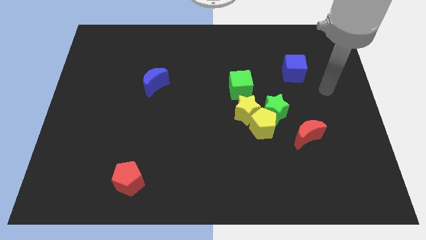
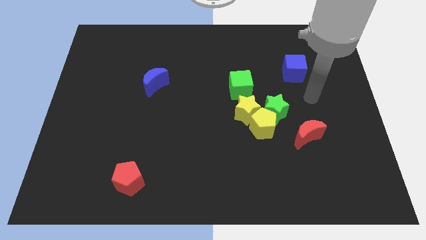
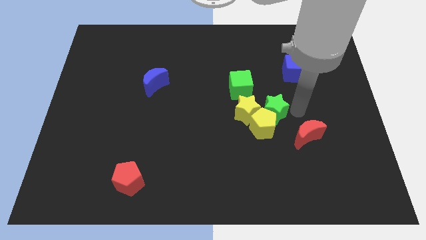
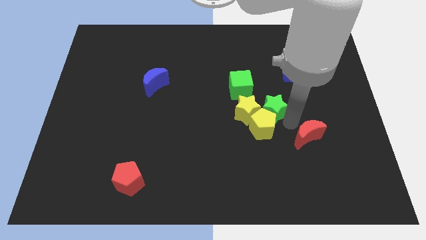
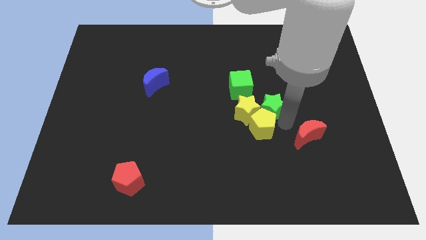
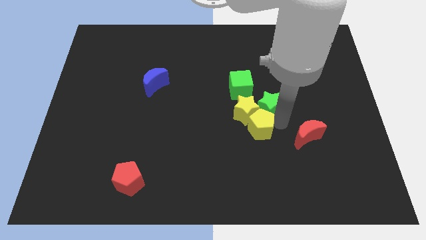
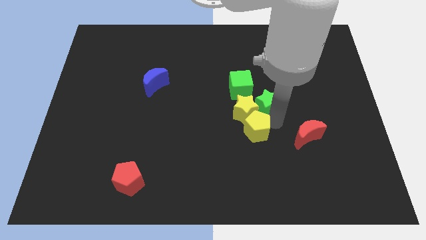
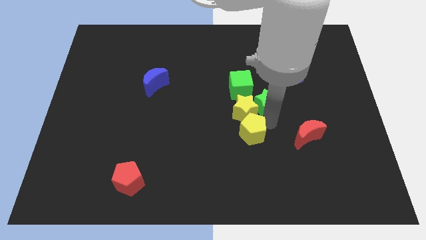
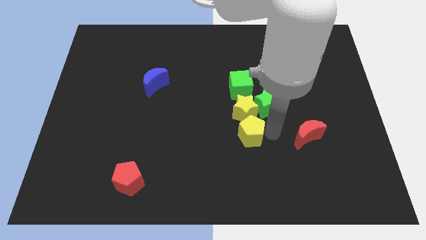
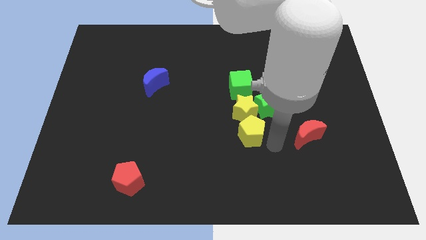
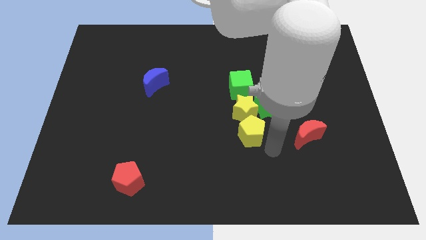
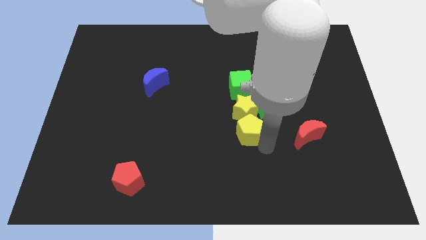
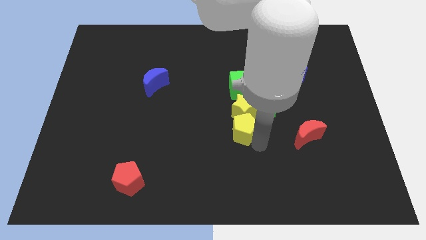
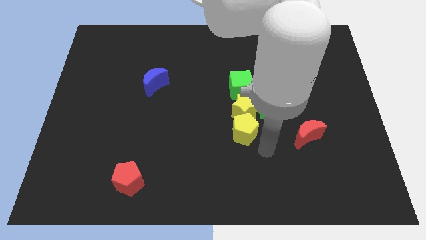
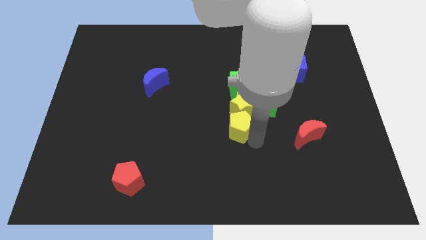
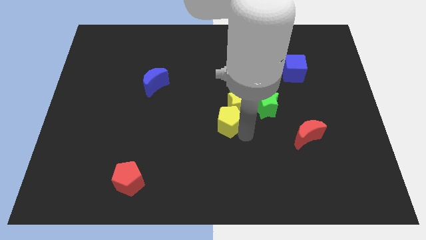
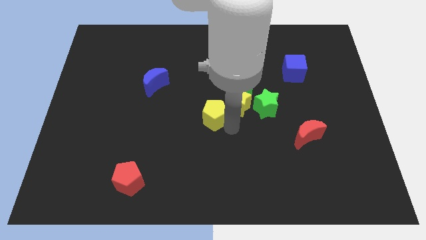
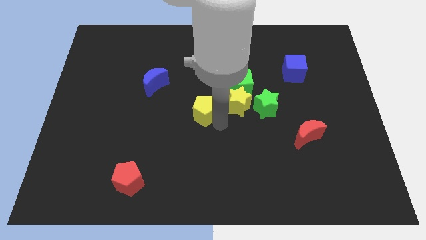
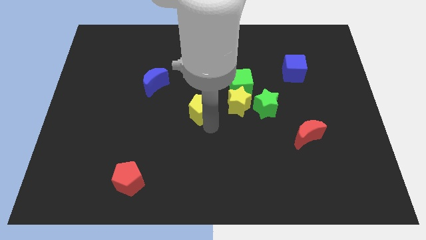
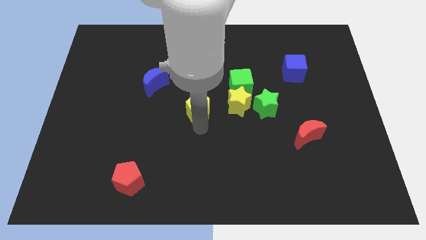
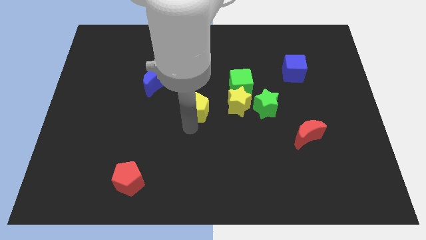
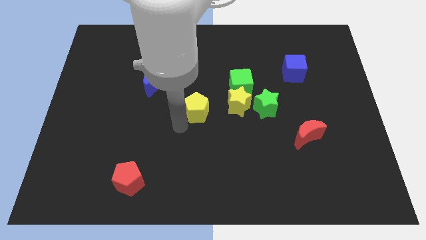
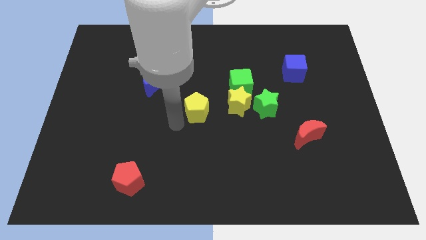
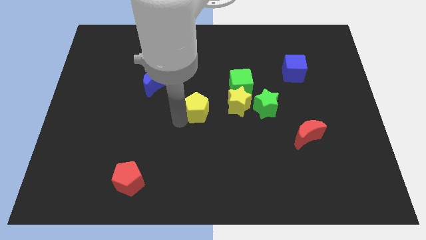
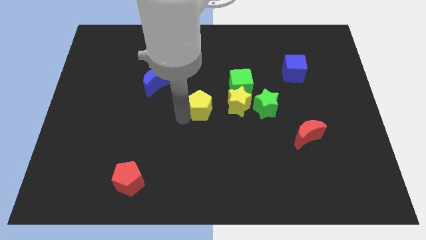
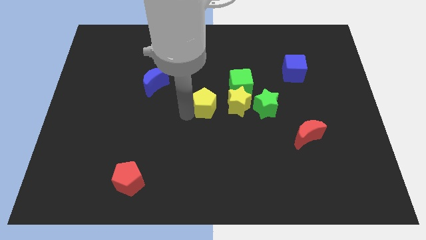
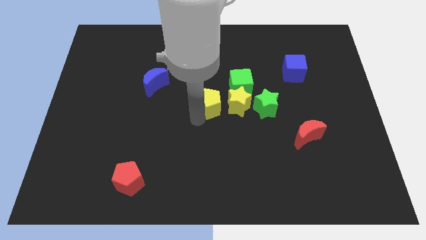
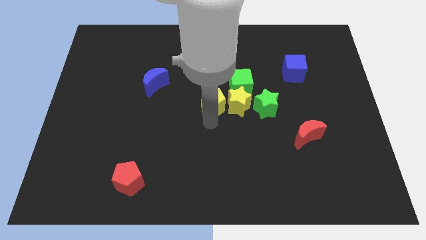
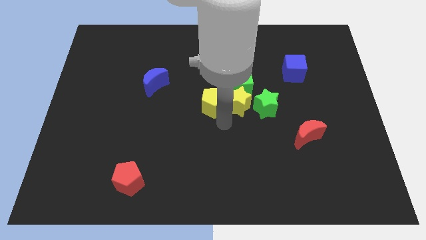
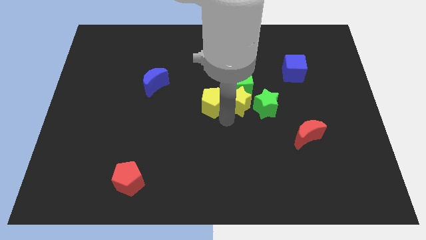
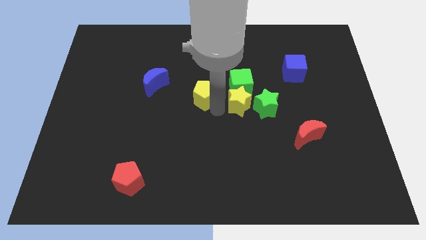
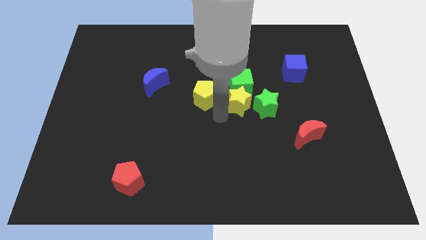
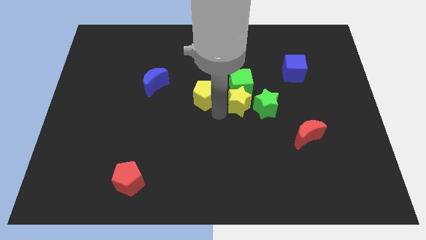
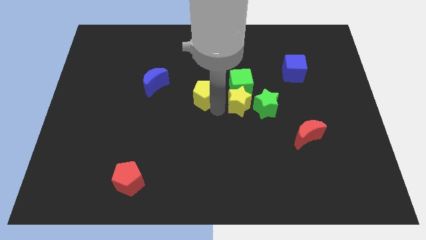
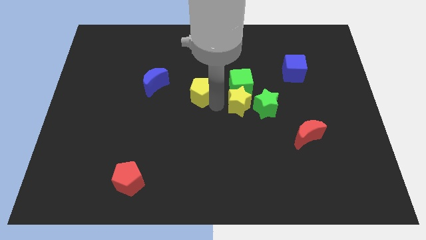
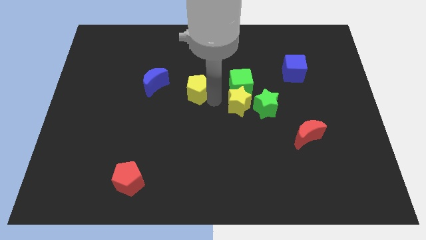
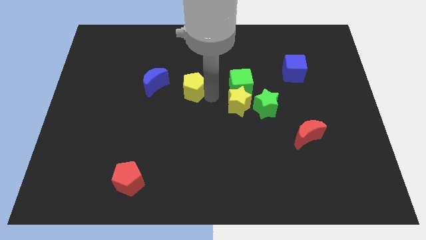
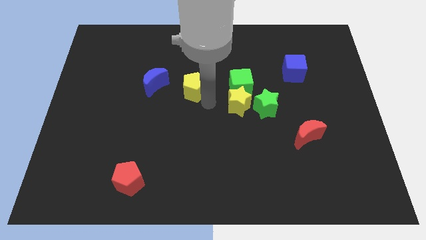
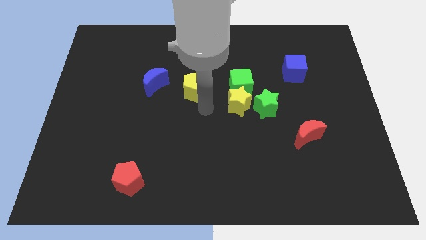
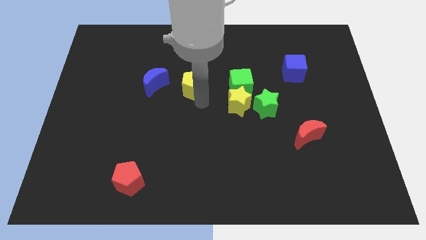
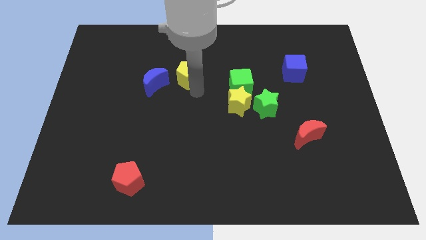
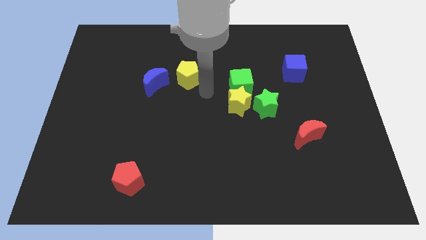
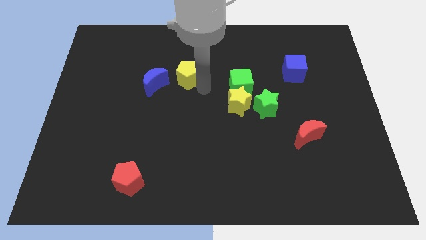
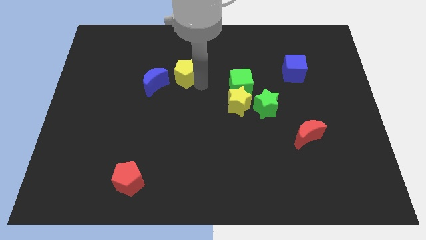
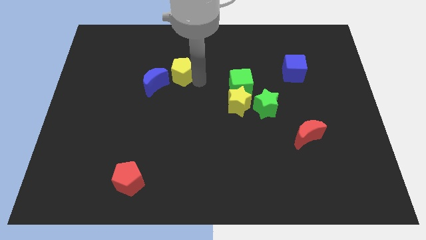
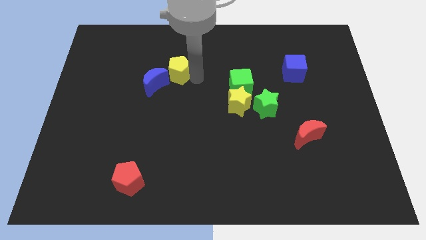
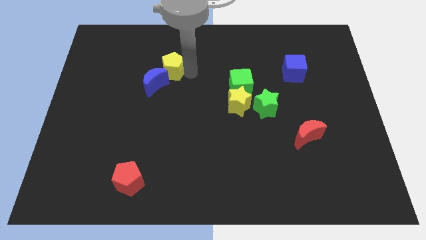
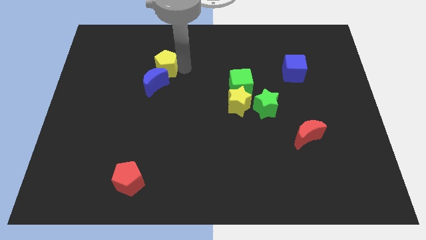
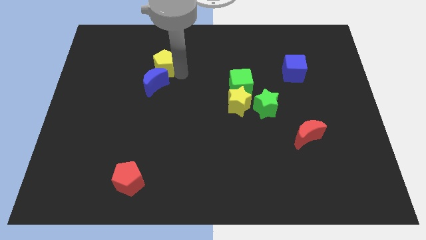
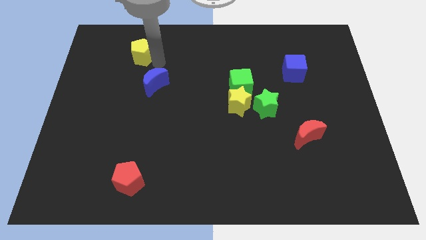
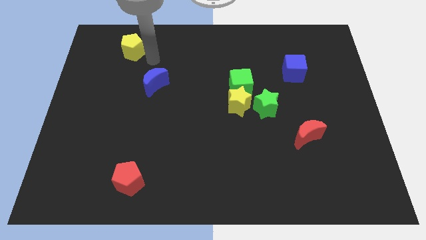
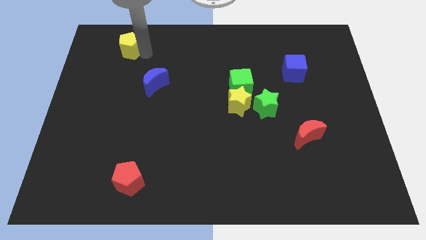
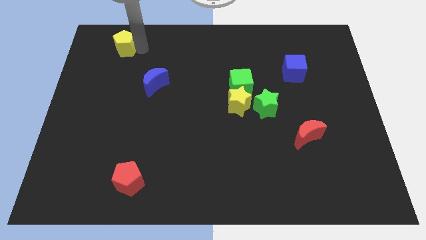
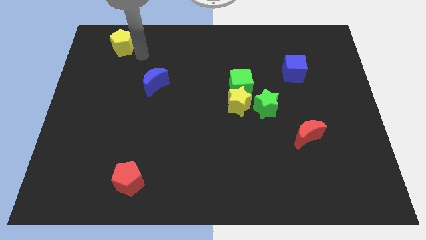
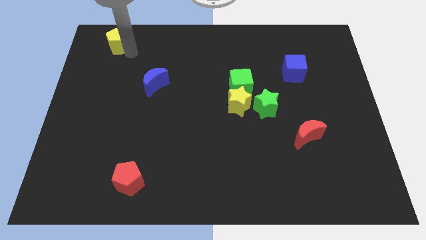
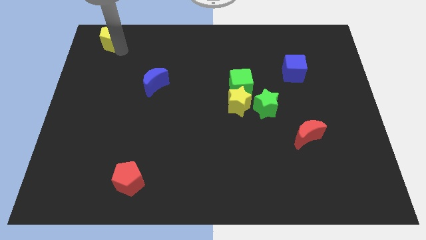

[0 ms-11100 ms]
slide the yellow pentagon to the top left of the board

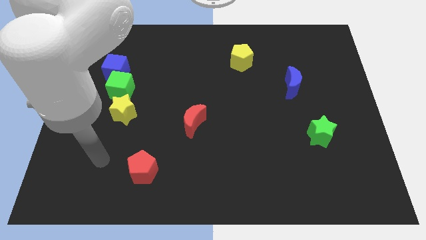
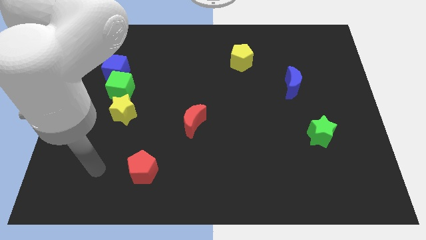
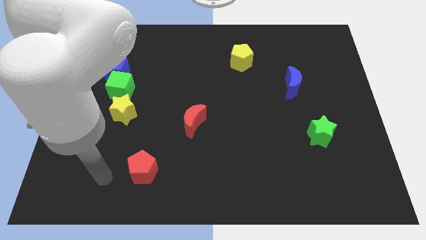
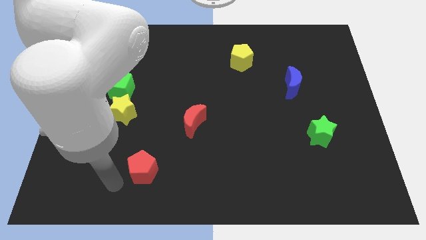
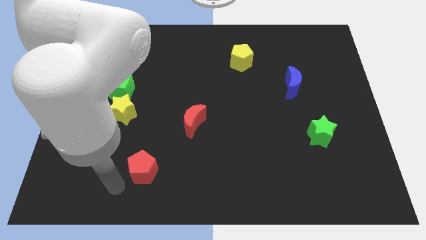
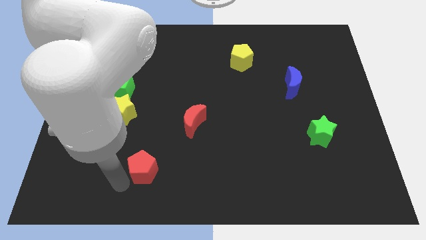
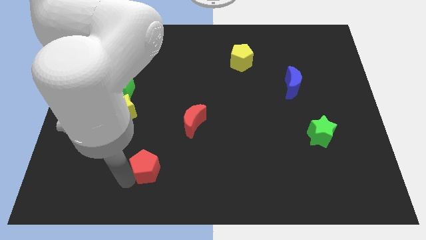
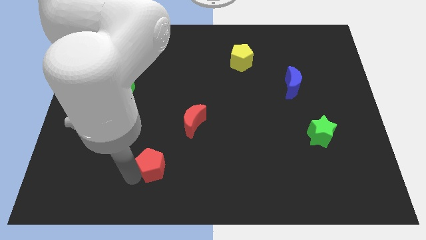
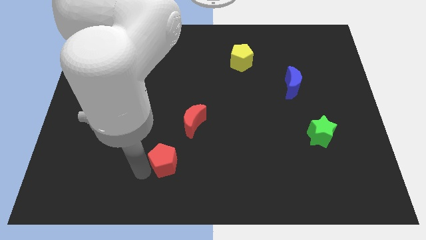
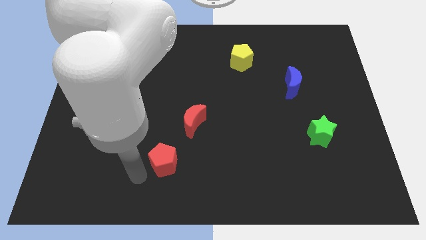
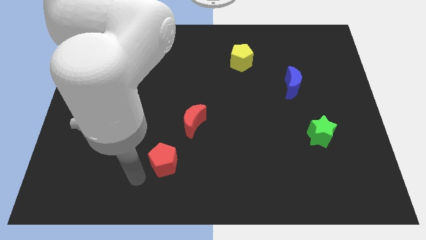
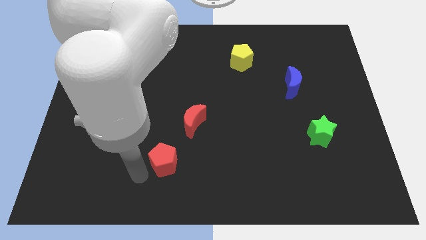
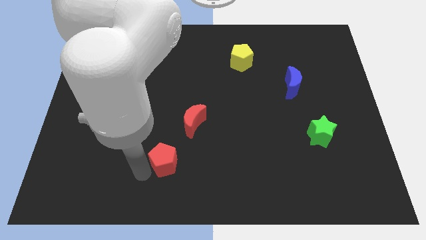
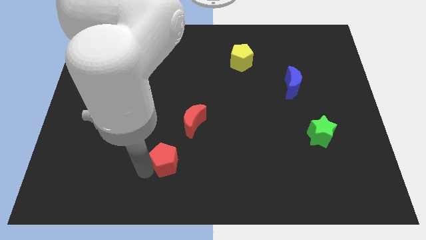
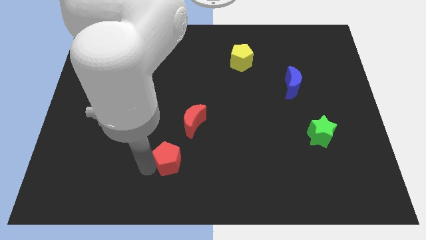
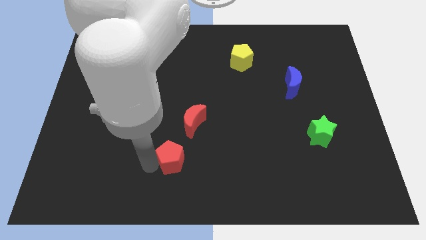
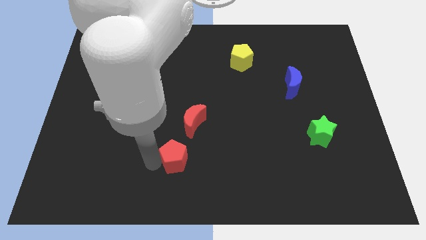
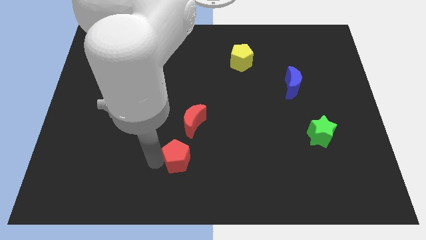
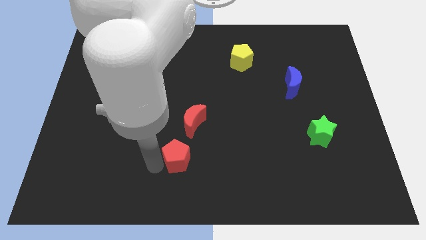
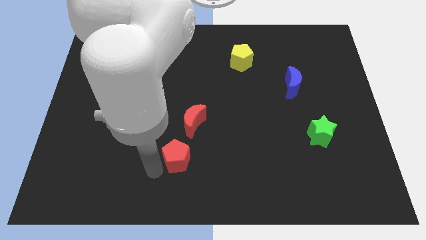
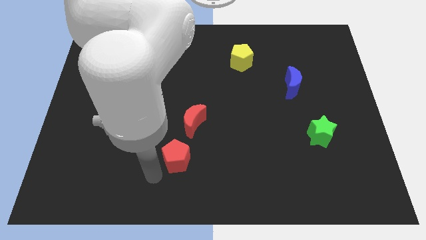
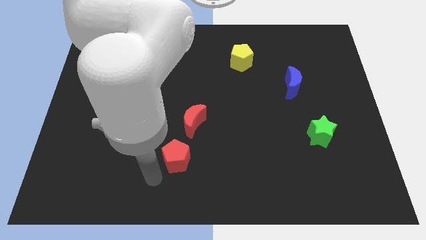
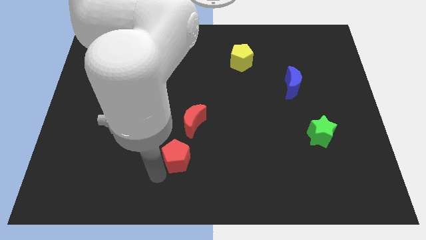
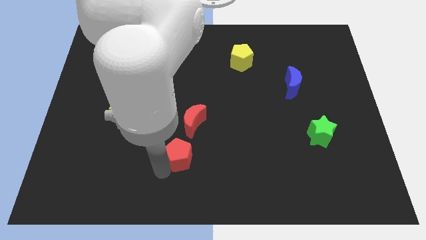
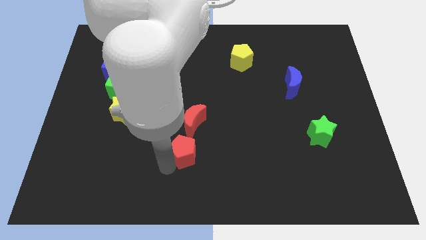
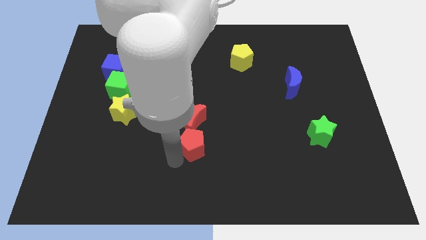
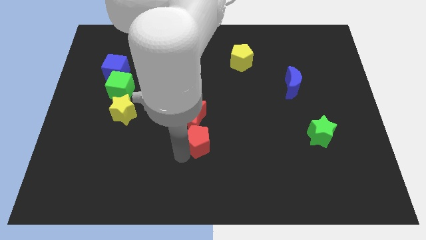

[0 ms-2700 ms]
move the red pentagon to the middle
